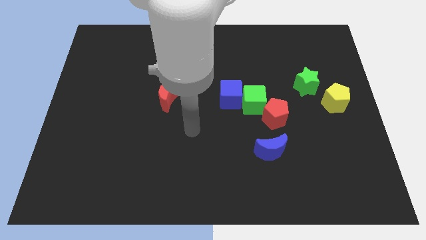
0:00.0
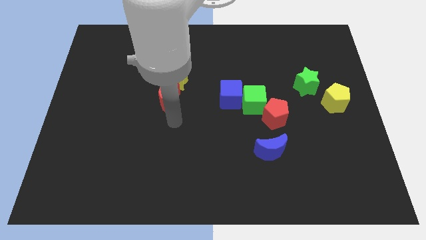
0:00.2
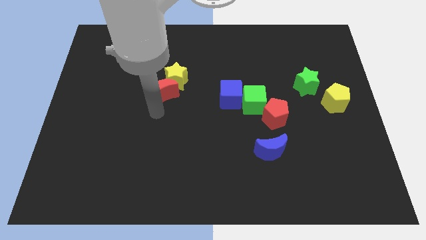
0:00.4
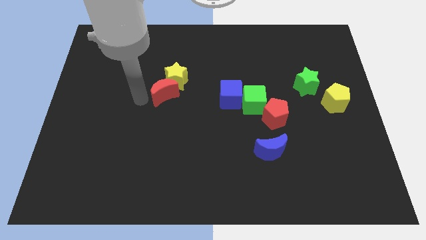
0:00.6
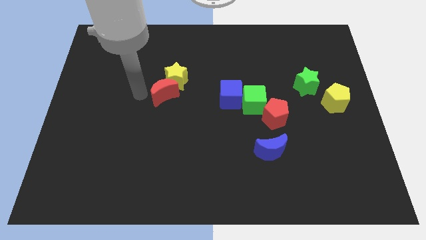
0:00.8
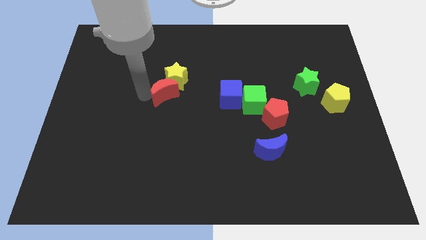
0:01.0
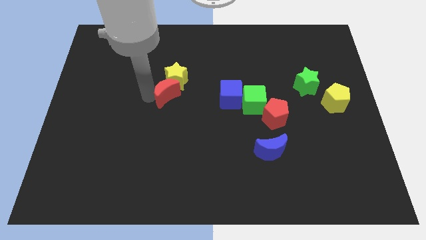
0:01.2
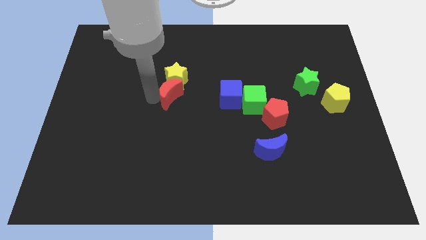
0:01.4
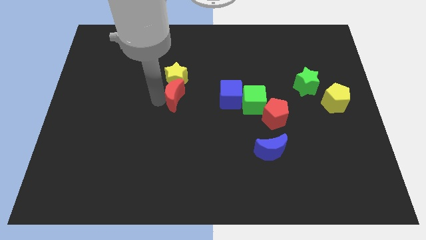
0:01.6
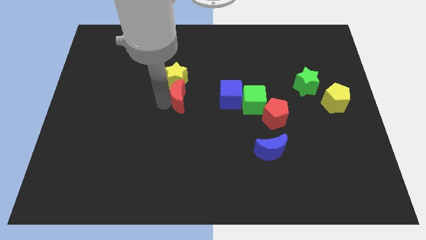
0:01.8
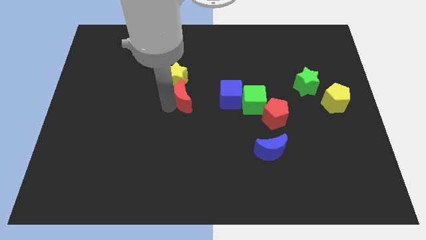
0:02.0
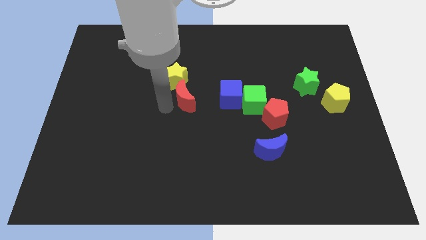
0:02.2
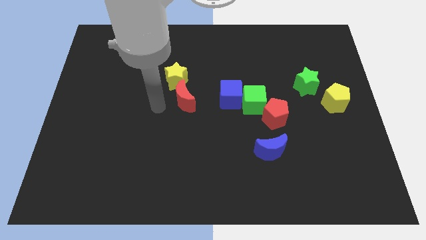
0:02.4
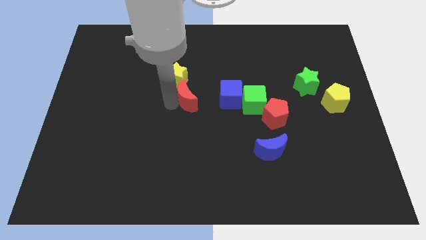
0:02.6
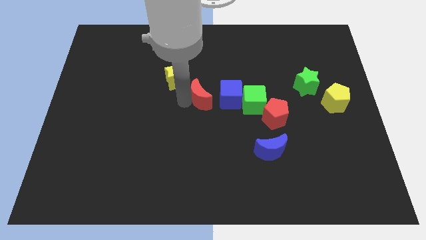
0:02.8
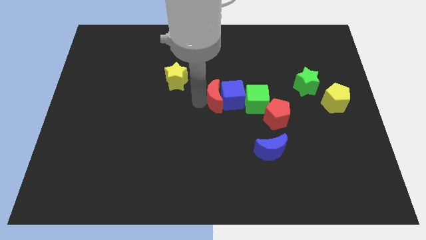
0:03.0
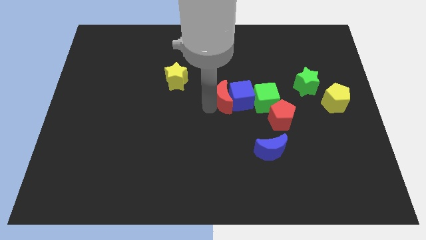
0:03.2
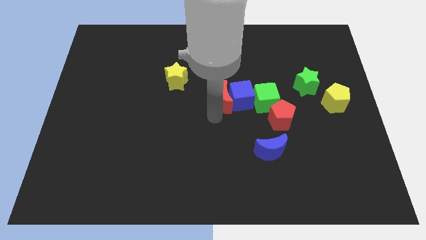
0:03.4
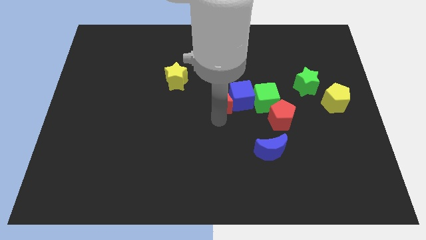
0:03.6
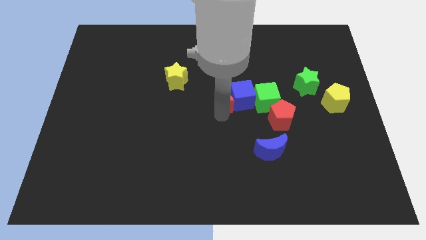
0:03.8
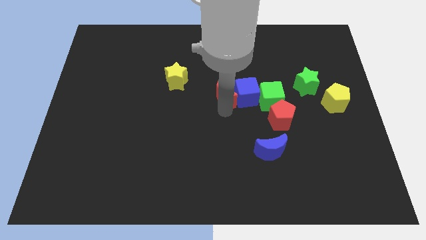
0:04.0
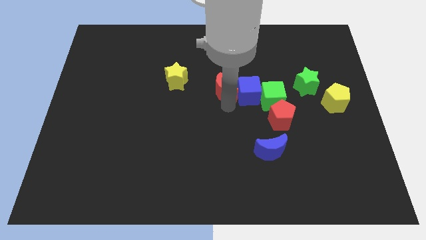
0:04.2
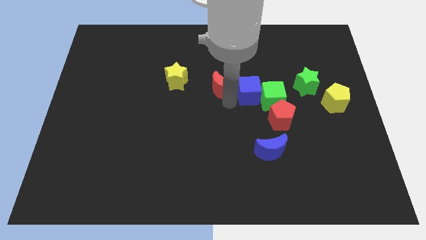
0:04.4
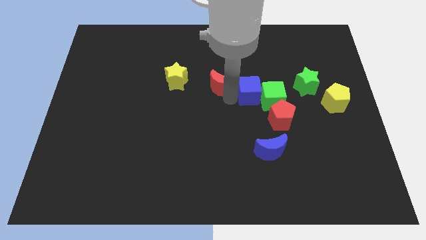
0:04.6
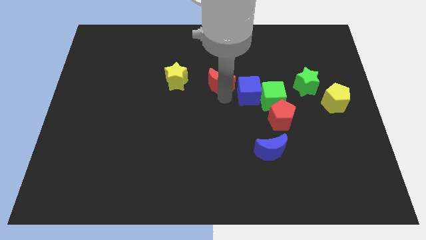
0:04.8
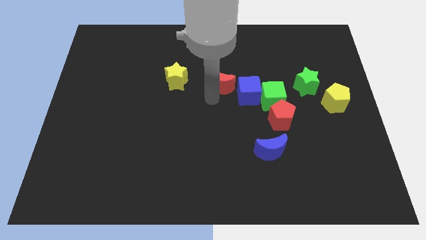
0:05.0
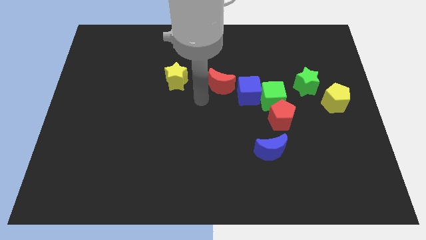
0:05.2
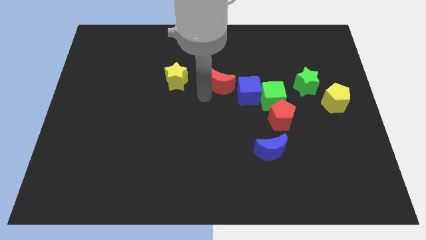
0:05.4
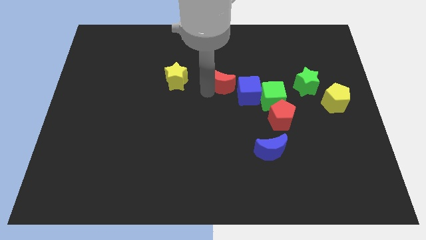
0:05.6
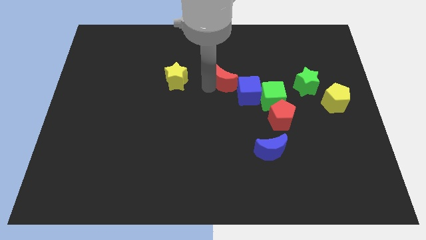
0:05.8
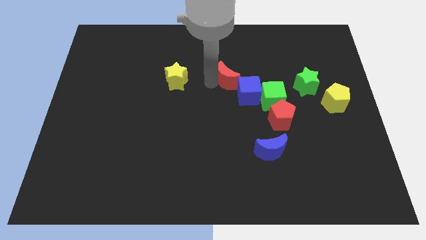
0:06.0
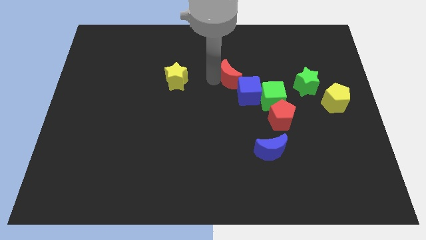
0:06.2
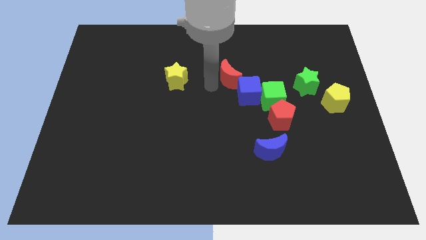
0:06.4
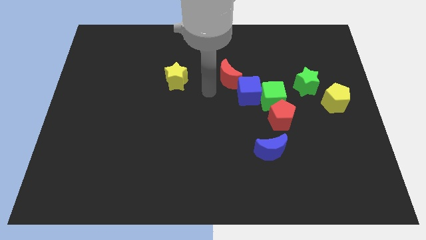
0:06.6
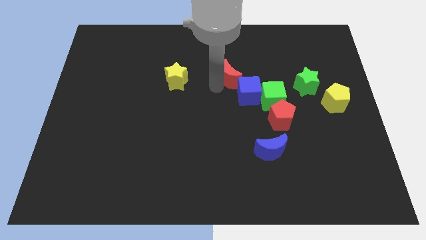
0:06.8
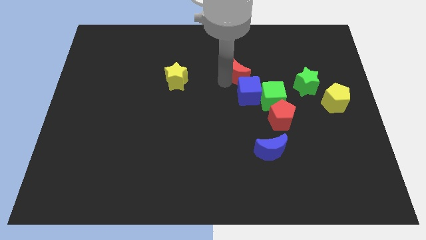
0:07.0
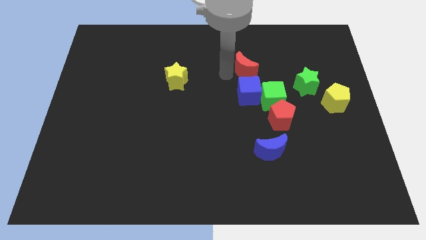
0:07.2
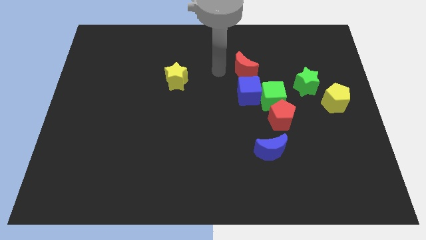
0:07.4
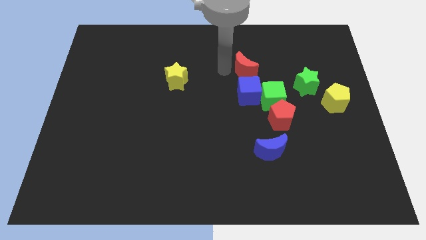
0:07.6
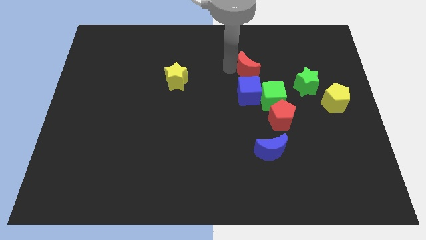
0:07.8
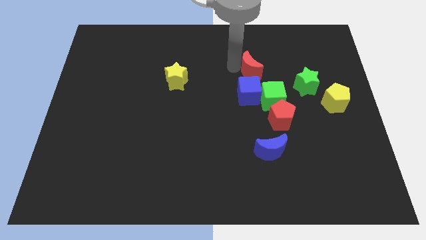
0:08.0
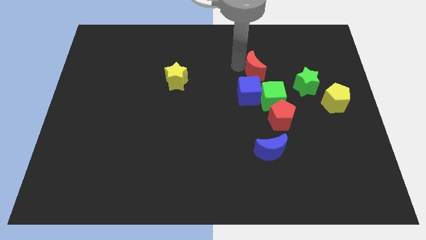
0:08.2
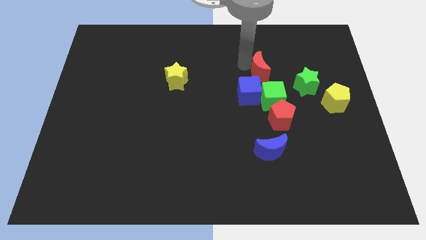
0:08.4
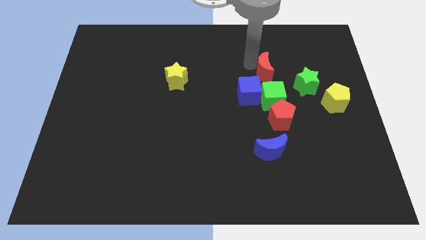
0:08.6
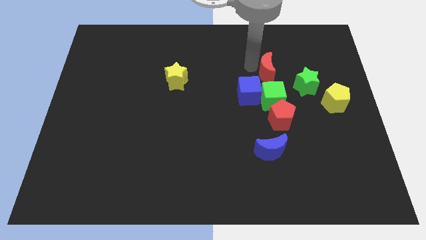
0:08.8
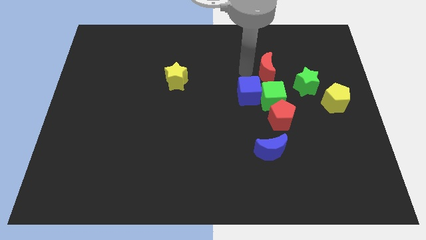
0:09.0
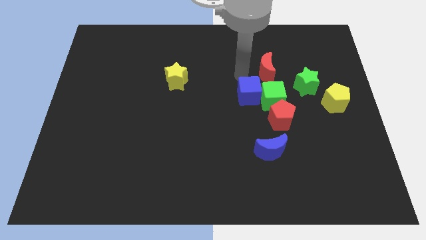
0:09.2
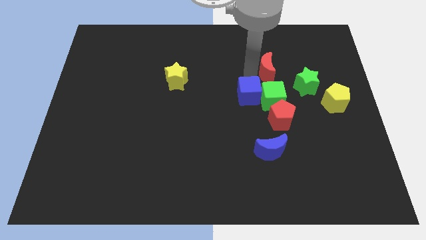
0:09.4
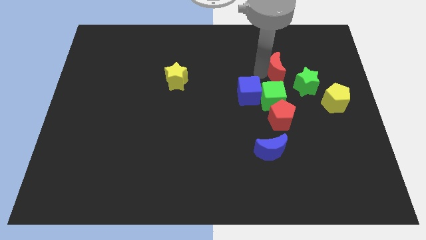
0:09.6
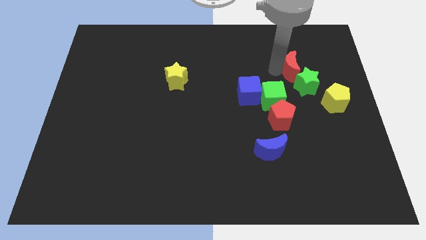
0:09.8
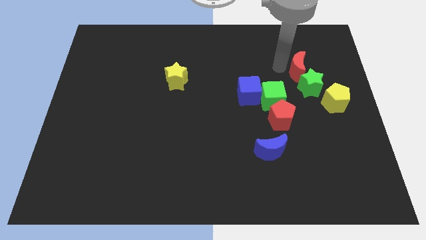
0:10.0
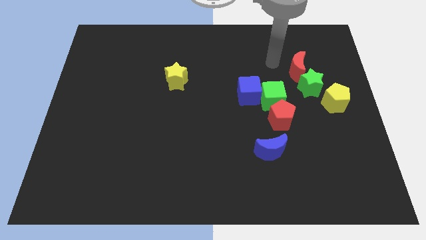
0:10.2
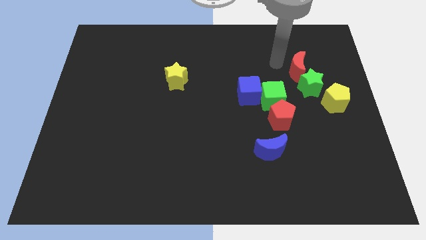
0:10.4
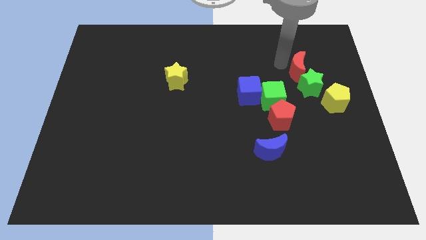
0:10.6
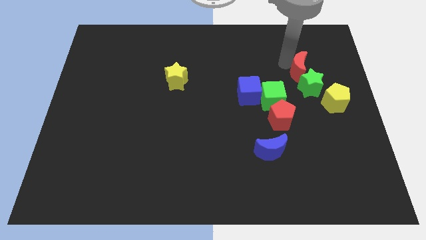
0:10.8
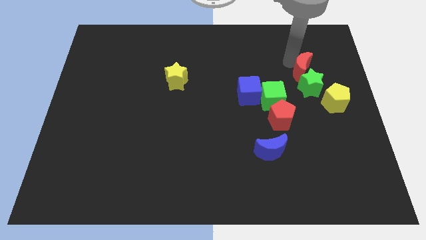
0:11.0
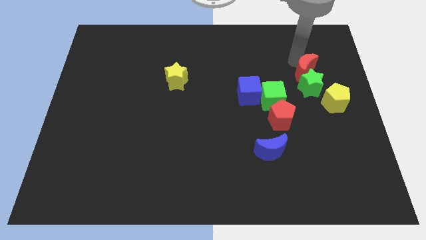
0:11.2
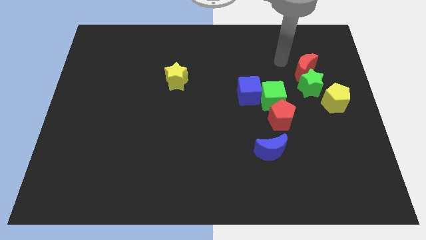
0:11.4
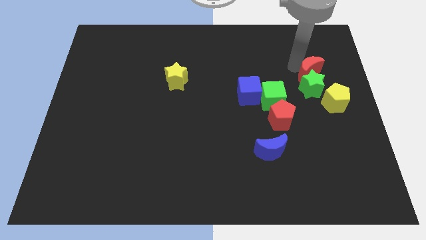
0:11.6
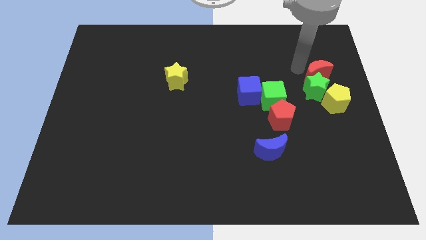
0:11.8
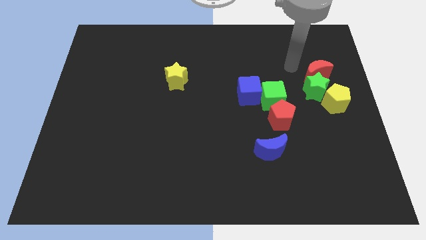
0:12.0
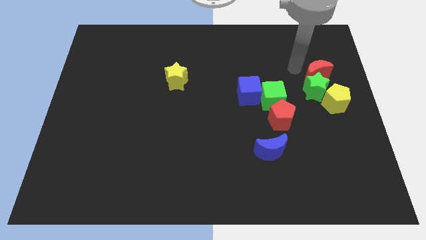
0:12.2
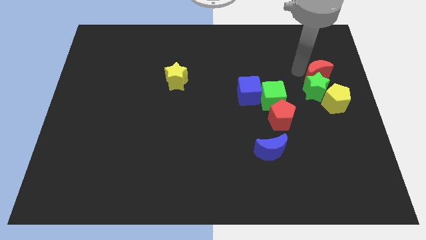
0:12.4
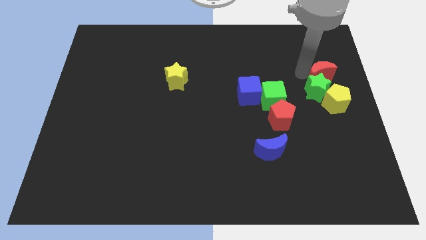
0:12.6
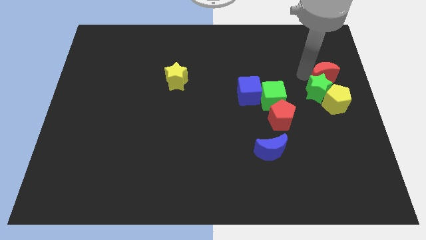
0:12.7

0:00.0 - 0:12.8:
slide the red moon to the center right
